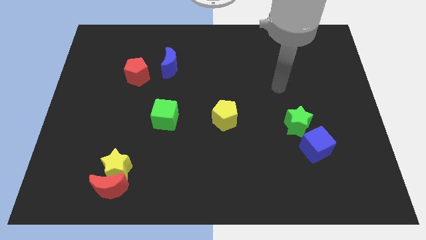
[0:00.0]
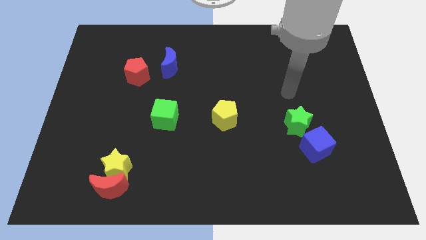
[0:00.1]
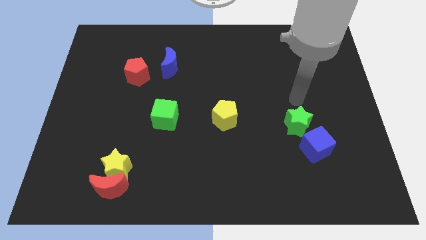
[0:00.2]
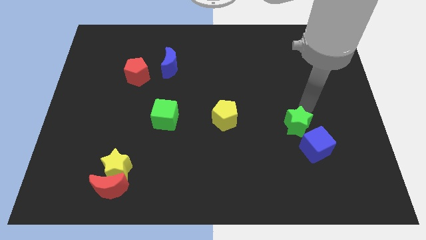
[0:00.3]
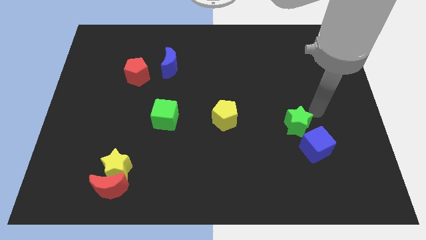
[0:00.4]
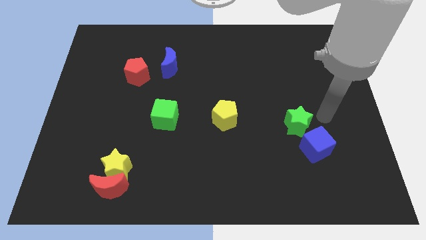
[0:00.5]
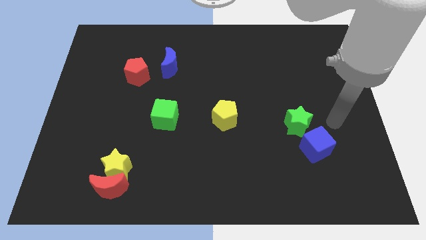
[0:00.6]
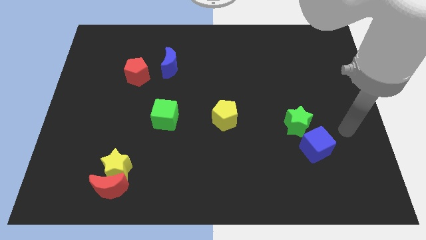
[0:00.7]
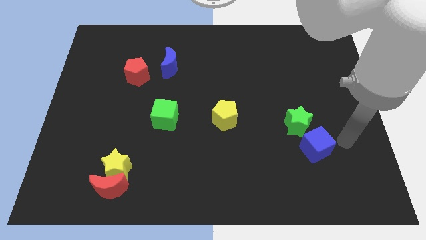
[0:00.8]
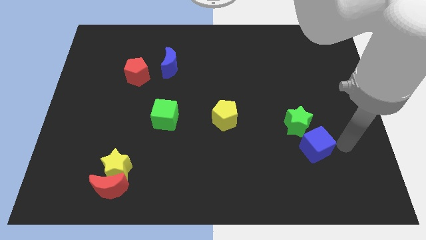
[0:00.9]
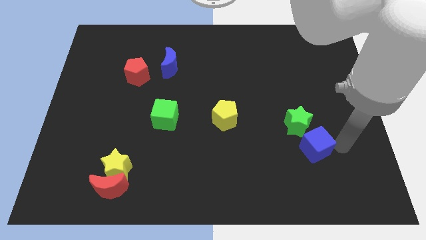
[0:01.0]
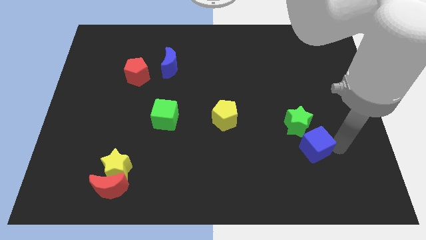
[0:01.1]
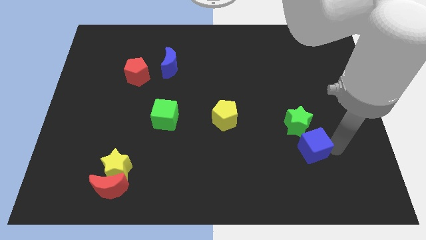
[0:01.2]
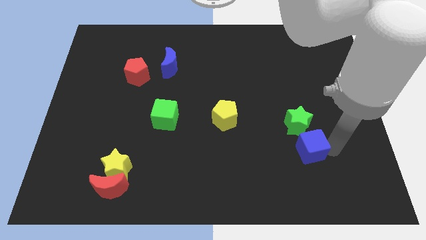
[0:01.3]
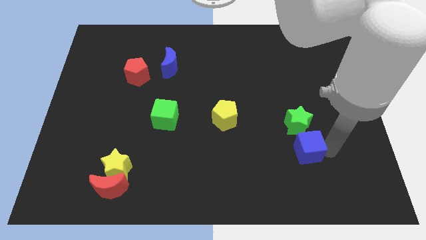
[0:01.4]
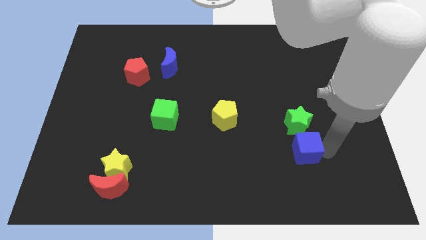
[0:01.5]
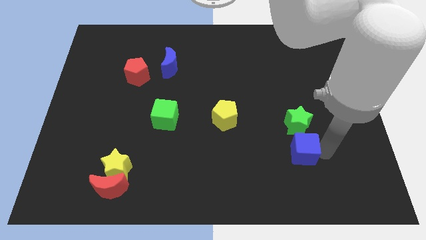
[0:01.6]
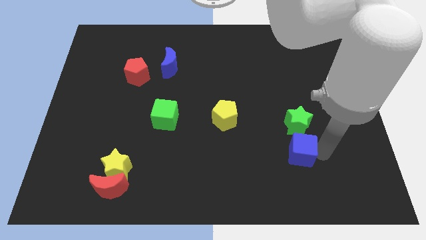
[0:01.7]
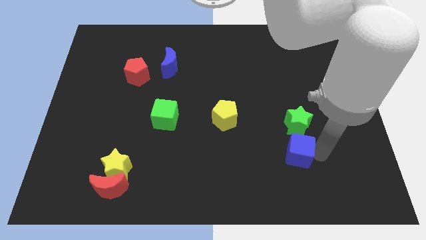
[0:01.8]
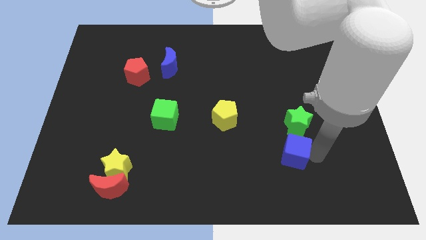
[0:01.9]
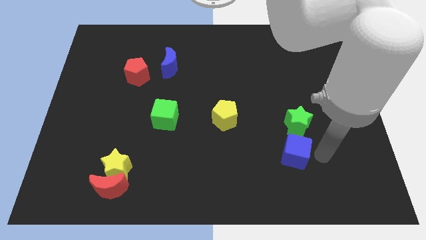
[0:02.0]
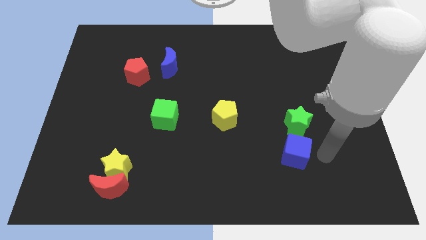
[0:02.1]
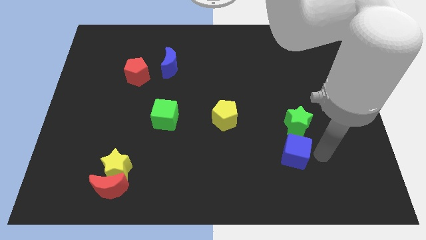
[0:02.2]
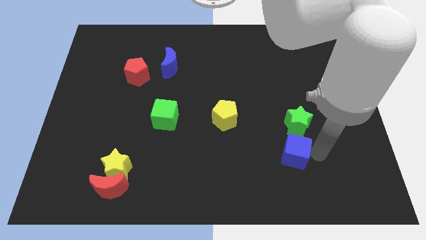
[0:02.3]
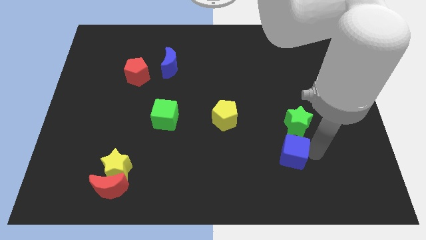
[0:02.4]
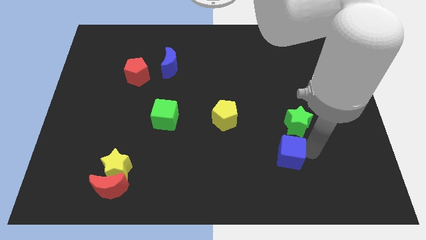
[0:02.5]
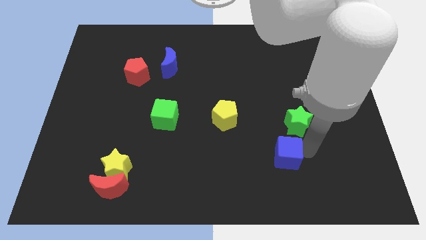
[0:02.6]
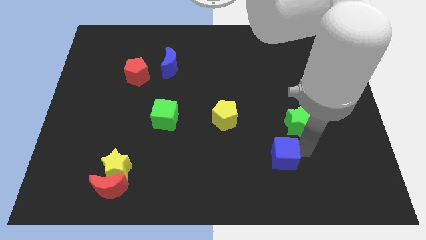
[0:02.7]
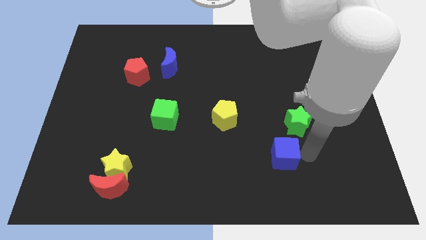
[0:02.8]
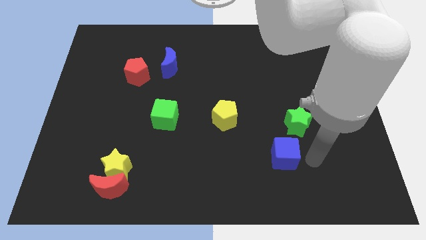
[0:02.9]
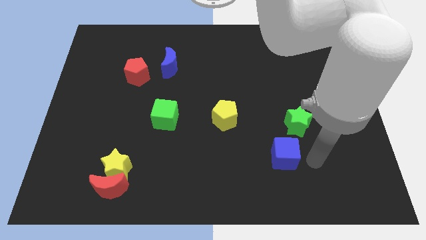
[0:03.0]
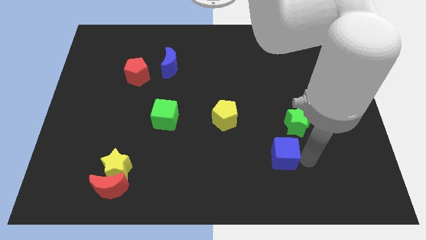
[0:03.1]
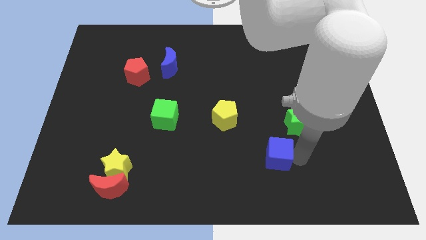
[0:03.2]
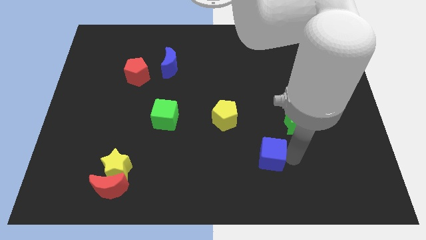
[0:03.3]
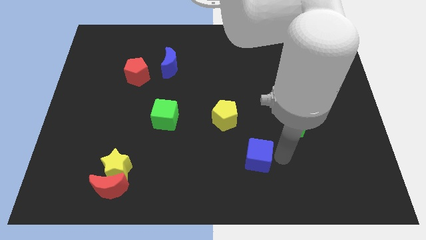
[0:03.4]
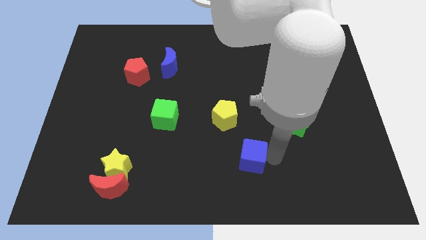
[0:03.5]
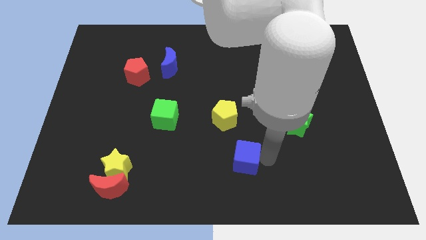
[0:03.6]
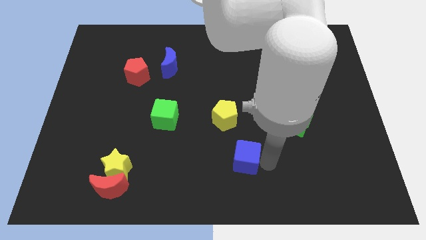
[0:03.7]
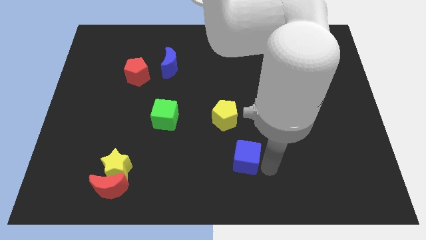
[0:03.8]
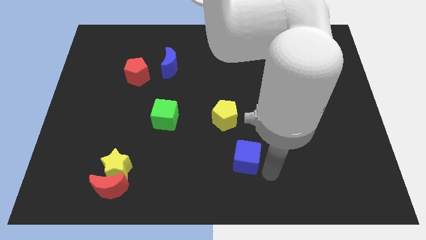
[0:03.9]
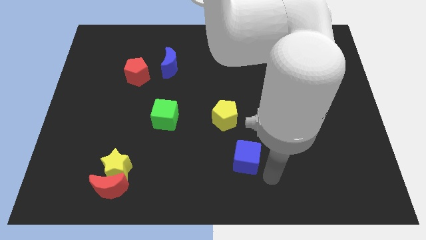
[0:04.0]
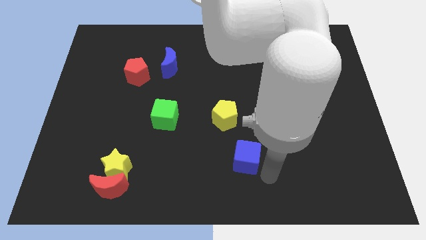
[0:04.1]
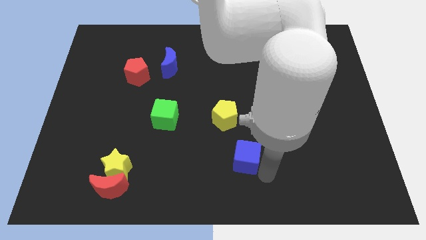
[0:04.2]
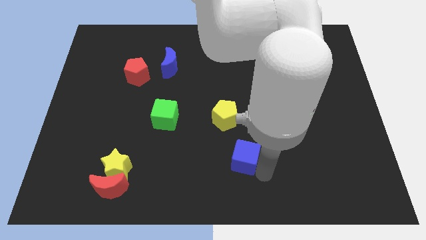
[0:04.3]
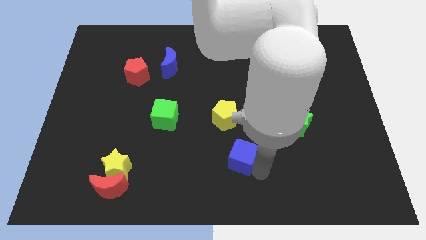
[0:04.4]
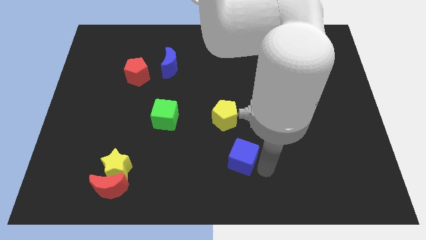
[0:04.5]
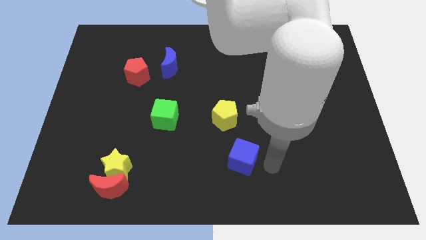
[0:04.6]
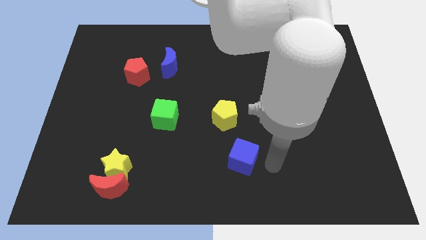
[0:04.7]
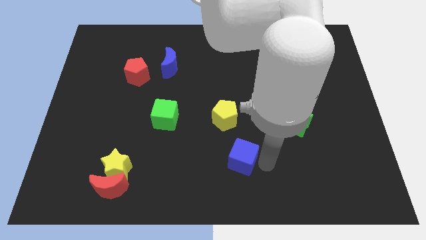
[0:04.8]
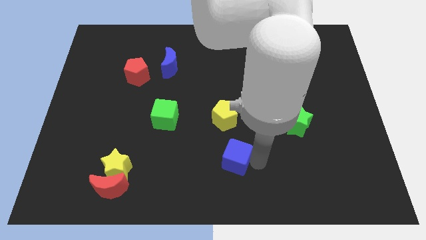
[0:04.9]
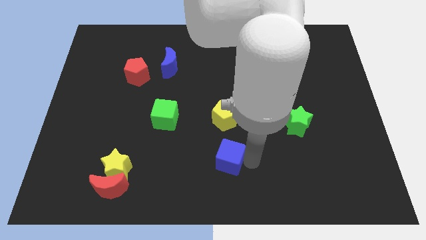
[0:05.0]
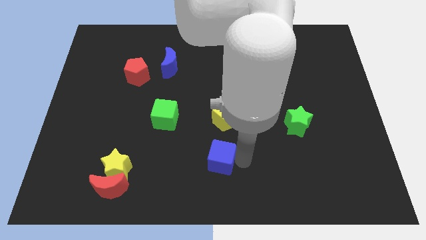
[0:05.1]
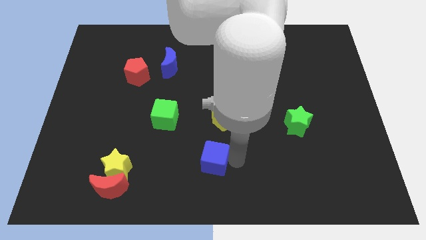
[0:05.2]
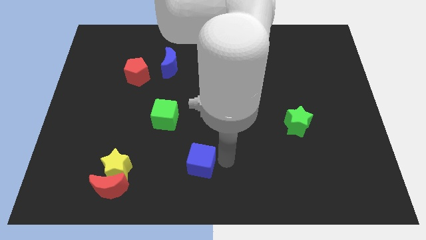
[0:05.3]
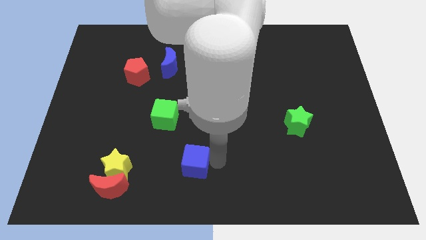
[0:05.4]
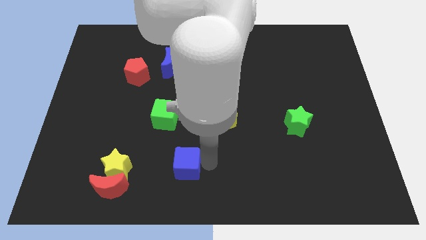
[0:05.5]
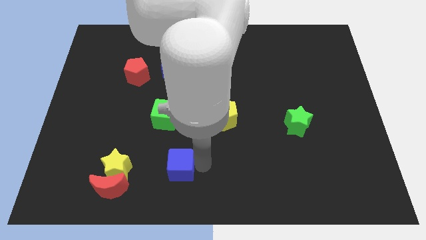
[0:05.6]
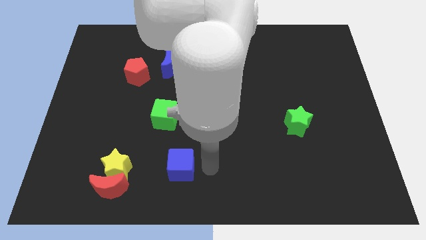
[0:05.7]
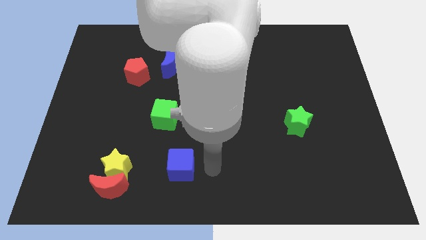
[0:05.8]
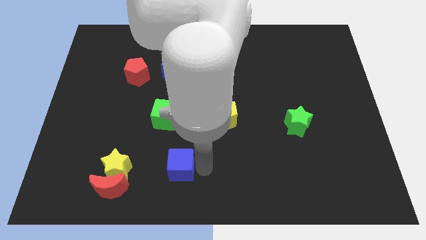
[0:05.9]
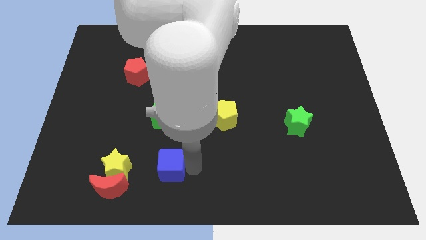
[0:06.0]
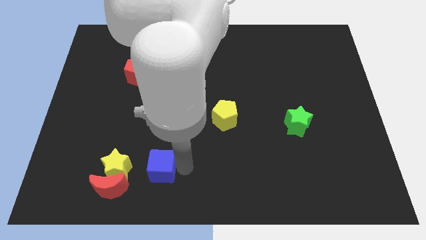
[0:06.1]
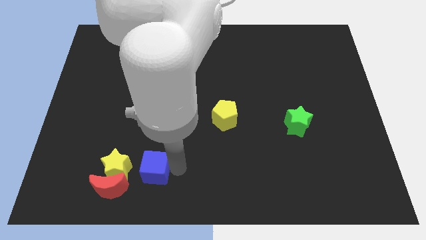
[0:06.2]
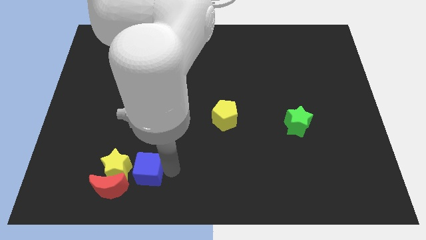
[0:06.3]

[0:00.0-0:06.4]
put the blue cube next to the yellow star
